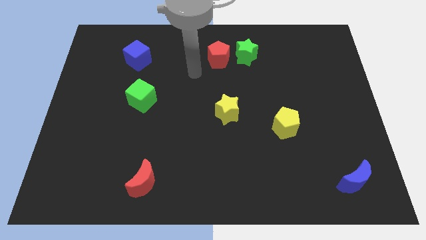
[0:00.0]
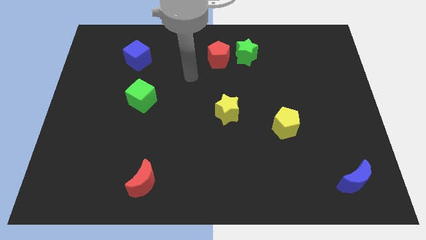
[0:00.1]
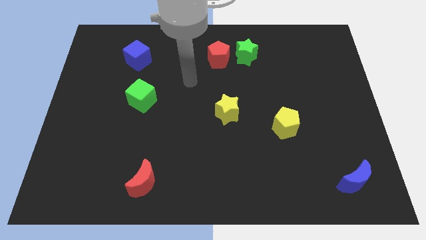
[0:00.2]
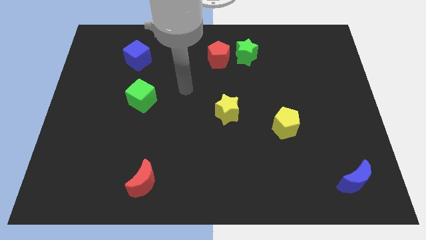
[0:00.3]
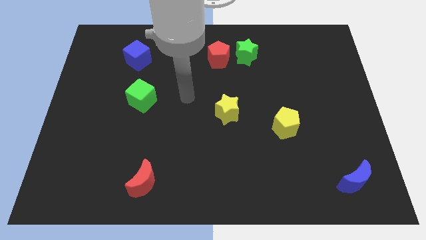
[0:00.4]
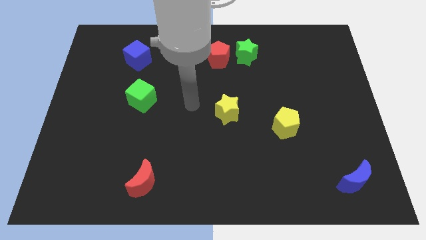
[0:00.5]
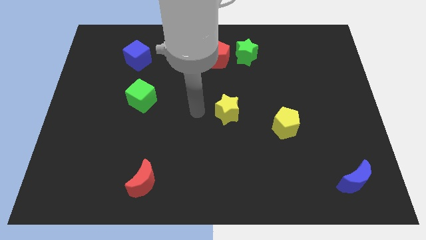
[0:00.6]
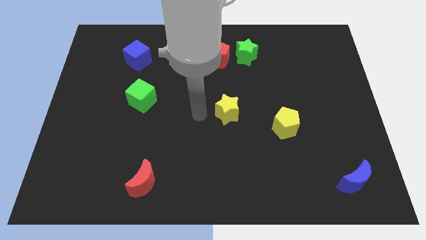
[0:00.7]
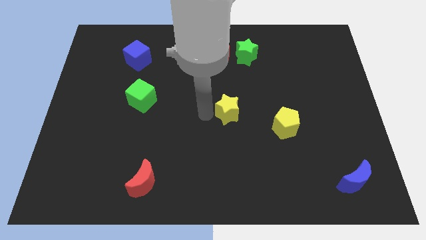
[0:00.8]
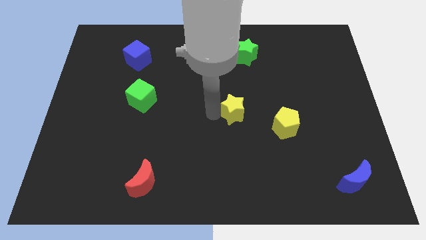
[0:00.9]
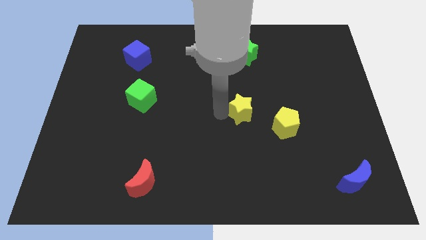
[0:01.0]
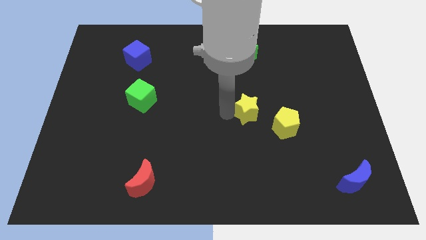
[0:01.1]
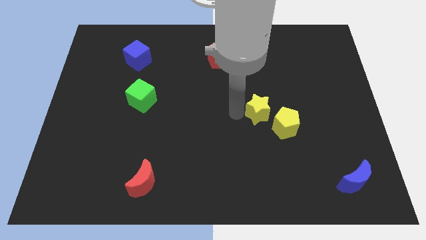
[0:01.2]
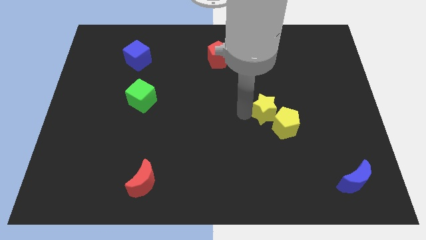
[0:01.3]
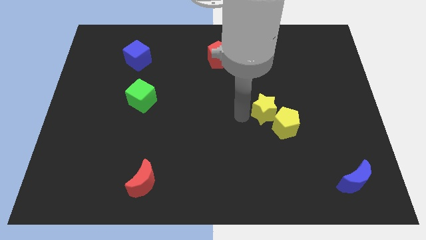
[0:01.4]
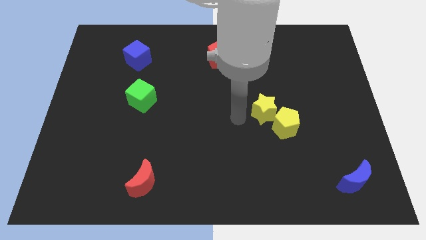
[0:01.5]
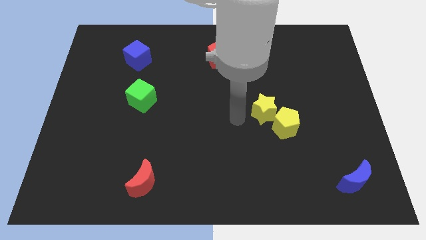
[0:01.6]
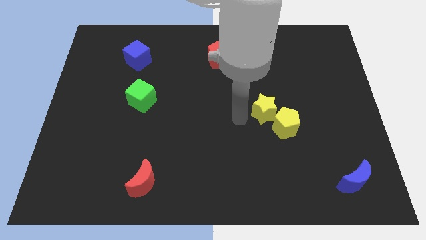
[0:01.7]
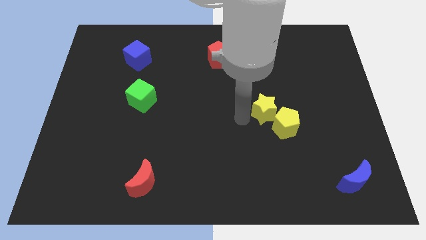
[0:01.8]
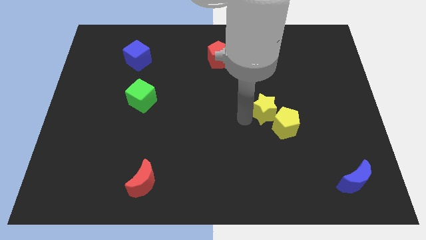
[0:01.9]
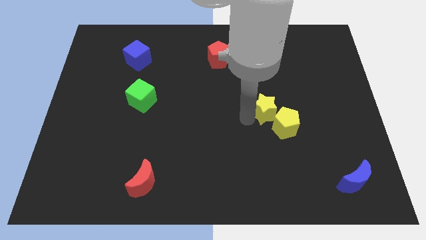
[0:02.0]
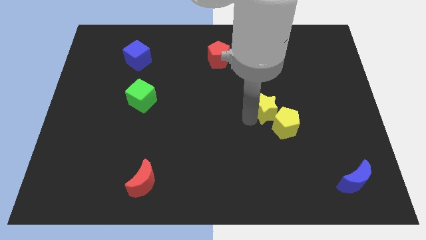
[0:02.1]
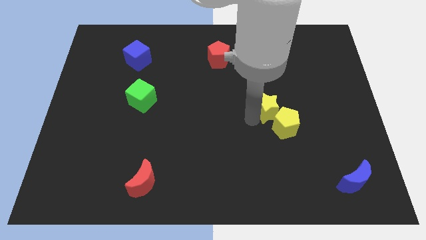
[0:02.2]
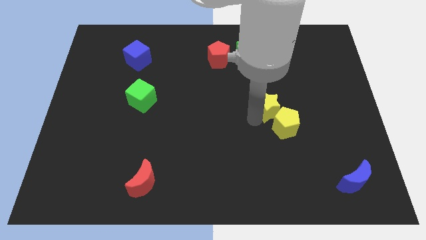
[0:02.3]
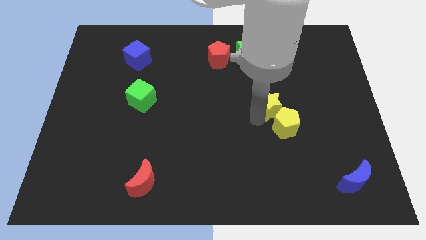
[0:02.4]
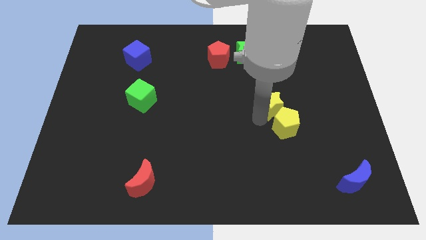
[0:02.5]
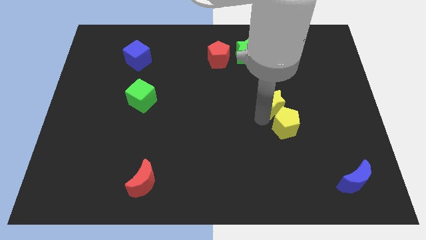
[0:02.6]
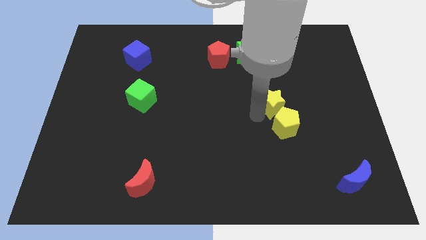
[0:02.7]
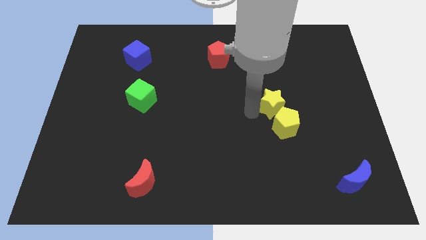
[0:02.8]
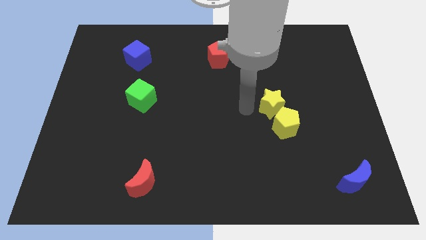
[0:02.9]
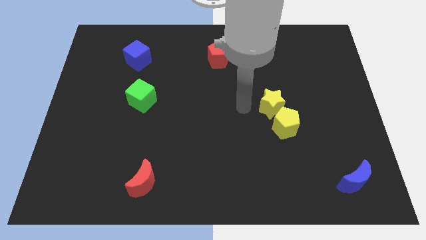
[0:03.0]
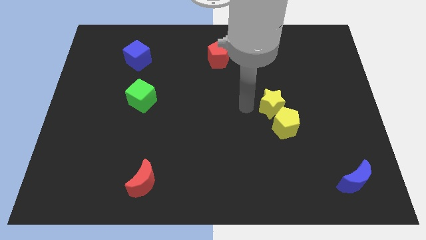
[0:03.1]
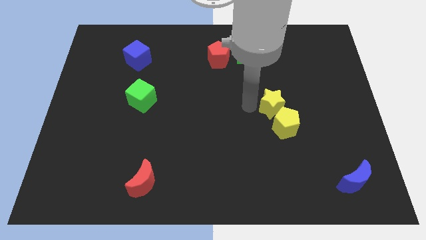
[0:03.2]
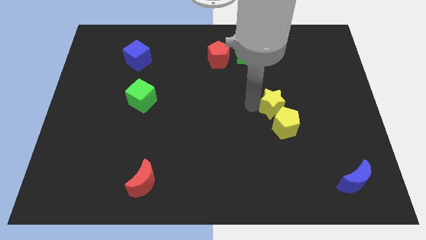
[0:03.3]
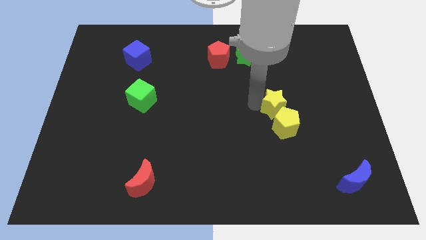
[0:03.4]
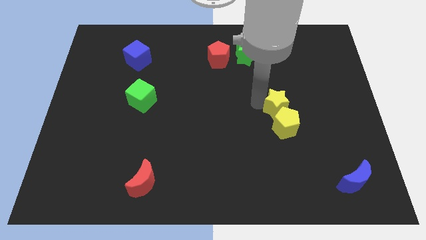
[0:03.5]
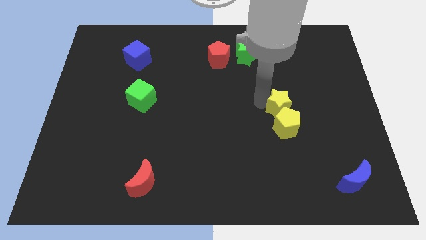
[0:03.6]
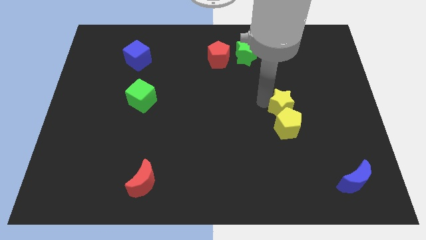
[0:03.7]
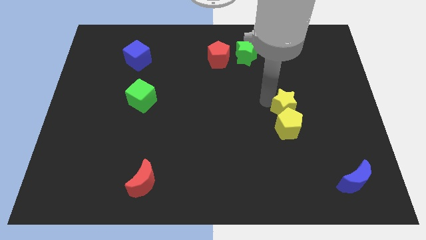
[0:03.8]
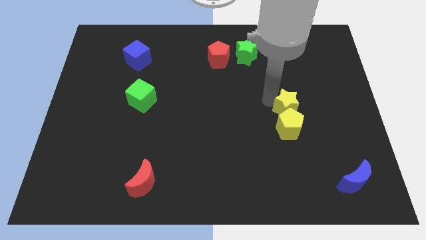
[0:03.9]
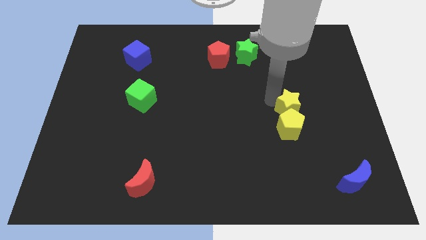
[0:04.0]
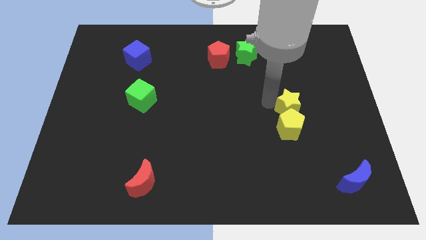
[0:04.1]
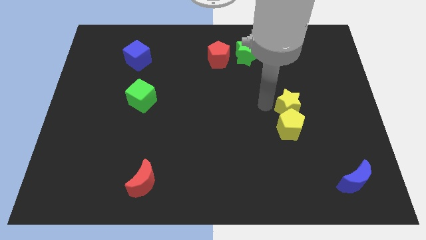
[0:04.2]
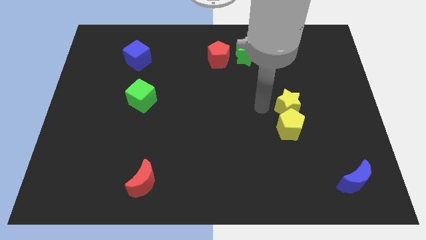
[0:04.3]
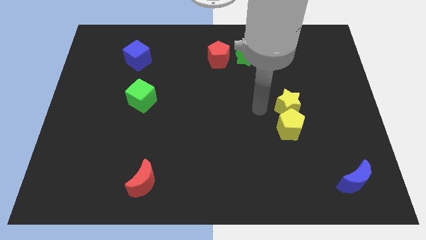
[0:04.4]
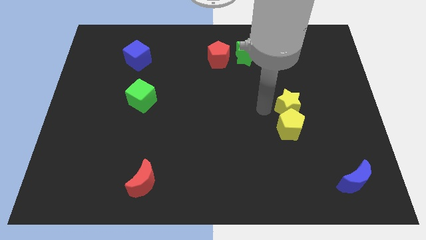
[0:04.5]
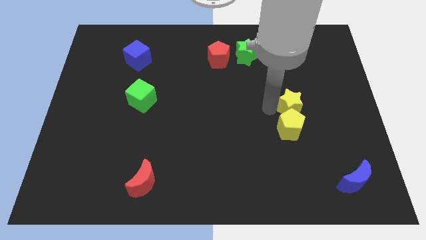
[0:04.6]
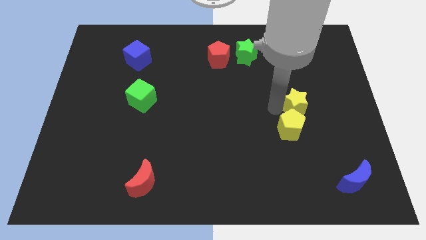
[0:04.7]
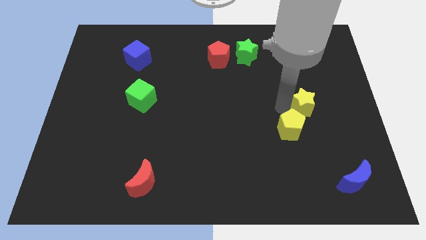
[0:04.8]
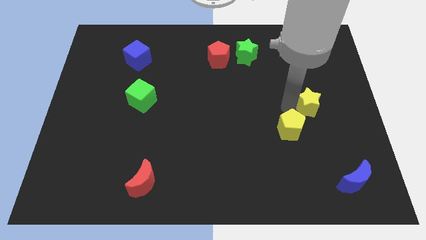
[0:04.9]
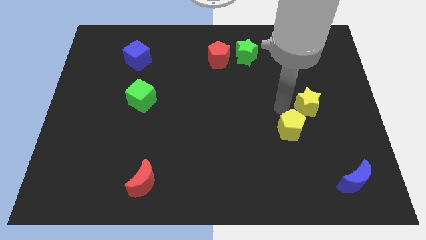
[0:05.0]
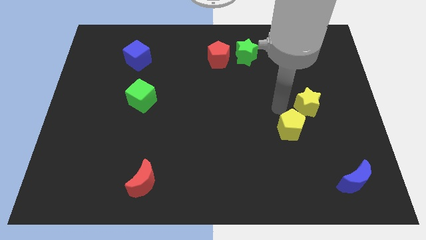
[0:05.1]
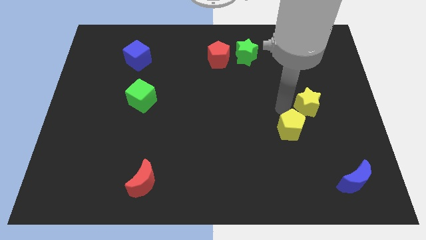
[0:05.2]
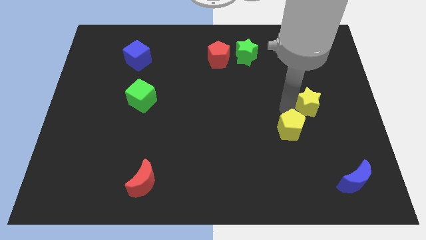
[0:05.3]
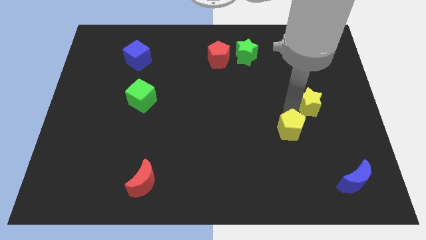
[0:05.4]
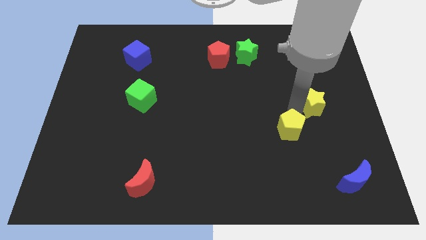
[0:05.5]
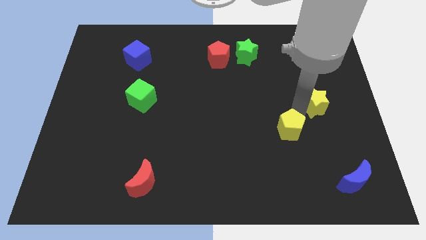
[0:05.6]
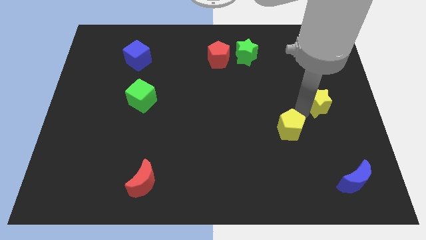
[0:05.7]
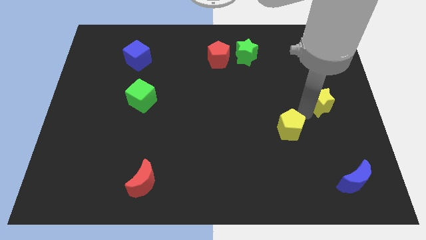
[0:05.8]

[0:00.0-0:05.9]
move the yellow star to the center right

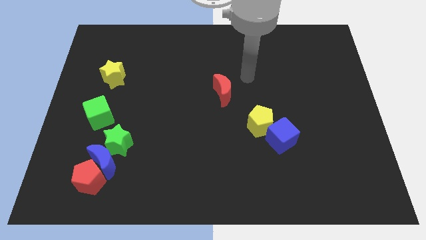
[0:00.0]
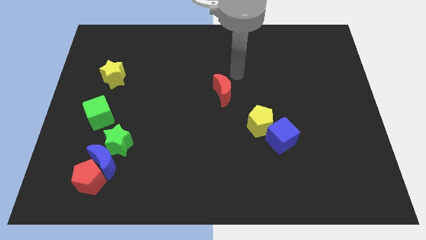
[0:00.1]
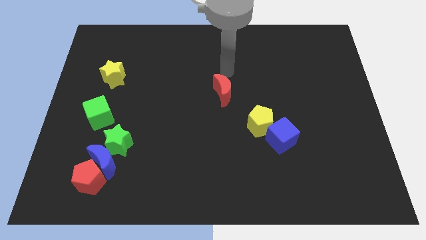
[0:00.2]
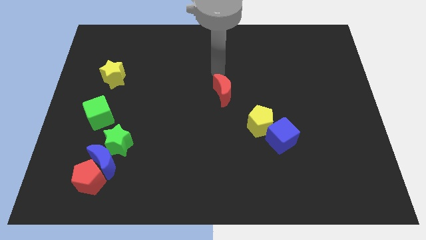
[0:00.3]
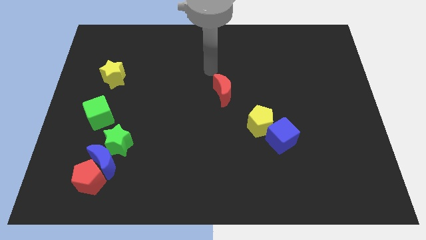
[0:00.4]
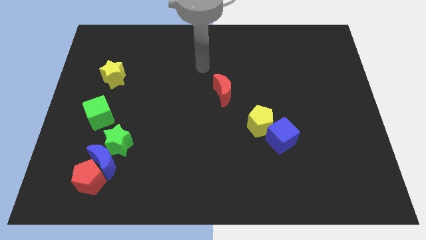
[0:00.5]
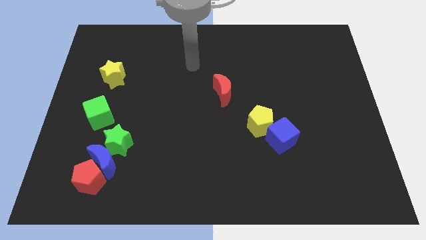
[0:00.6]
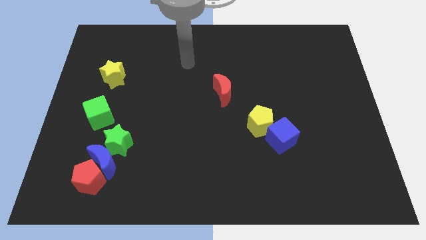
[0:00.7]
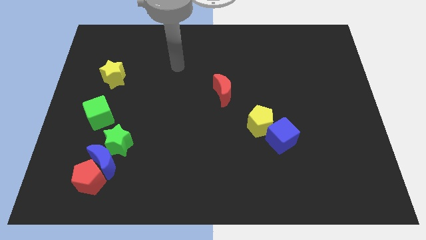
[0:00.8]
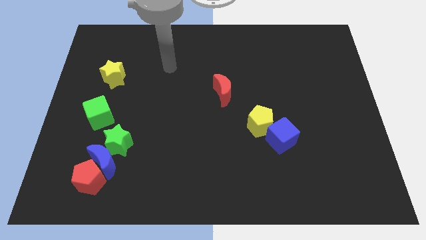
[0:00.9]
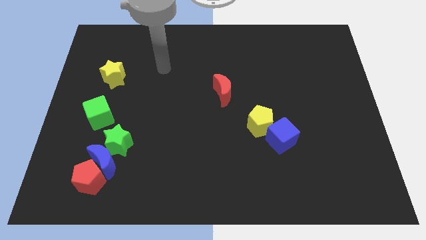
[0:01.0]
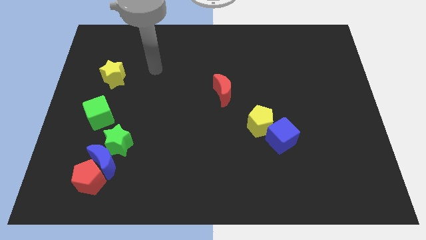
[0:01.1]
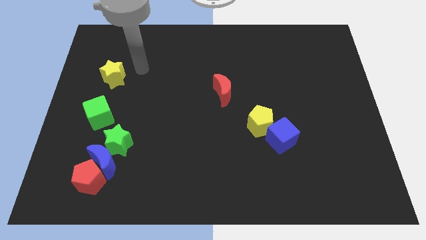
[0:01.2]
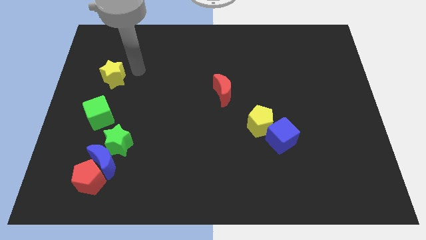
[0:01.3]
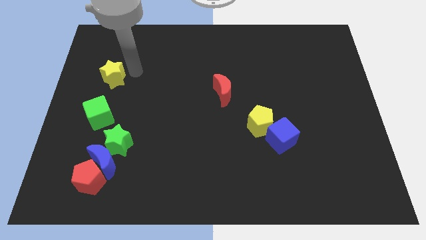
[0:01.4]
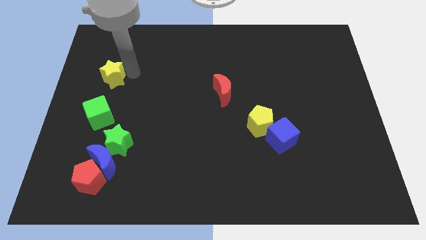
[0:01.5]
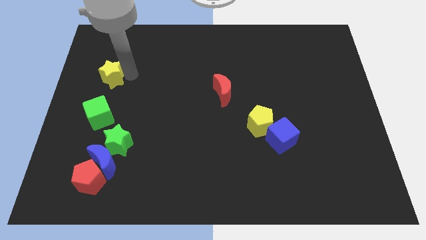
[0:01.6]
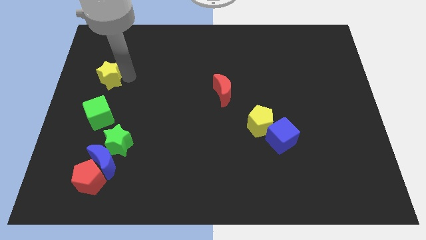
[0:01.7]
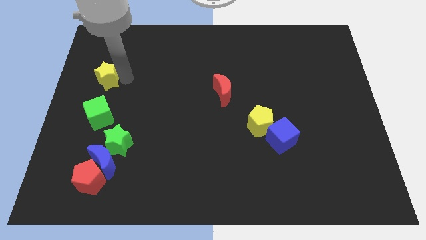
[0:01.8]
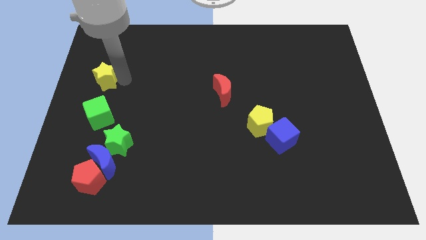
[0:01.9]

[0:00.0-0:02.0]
slide the yellow star to the left side

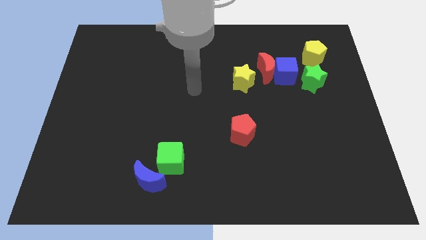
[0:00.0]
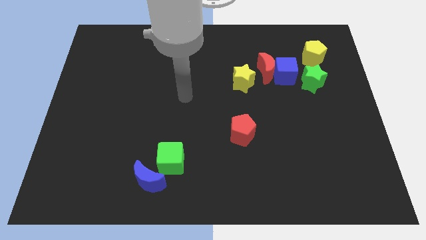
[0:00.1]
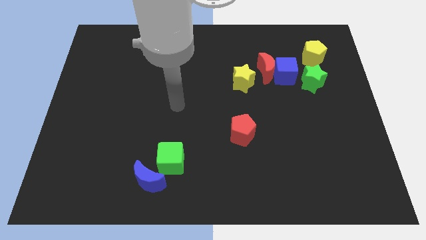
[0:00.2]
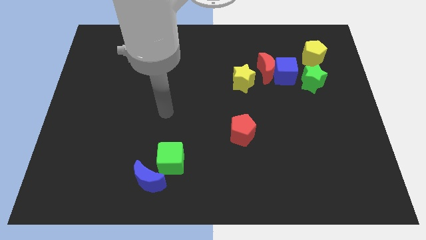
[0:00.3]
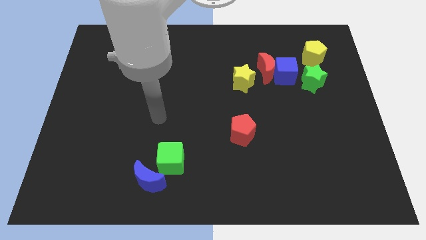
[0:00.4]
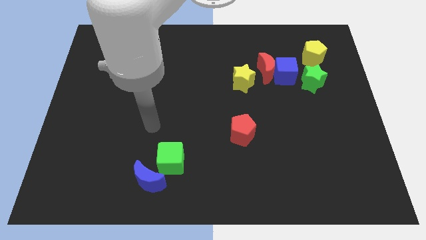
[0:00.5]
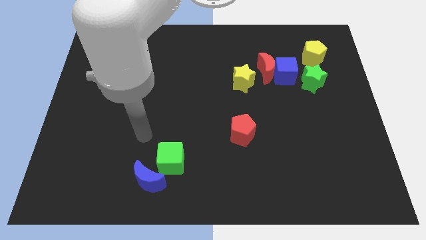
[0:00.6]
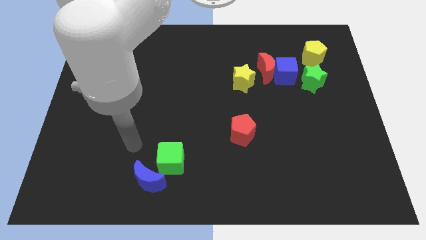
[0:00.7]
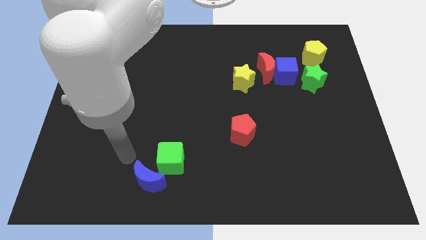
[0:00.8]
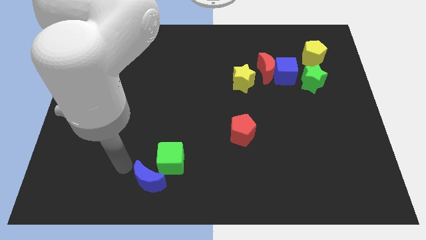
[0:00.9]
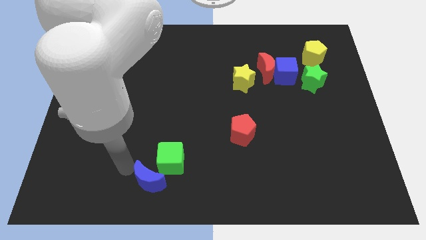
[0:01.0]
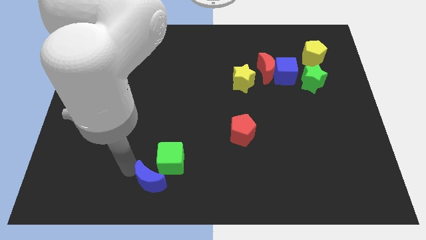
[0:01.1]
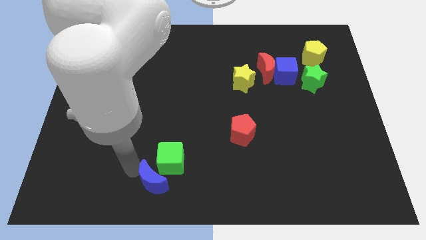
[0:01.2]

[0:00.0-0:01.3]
push the blue moon to the bottom side
